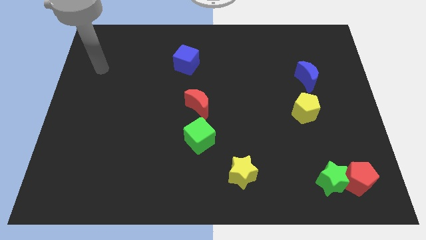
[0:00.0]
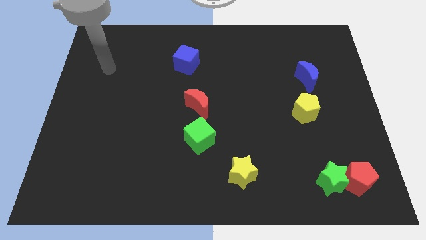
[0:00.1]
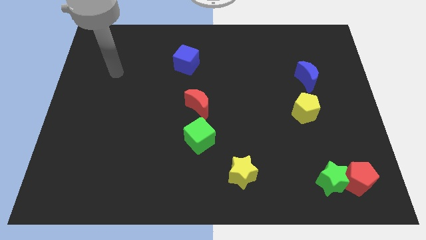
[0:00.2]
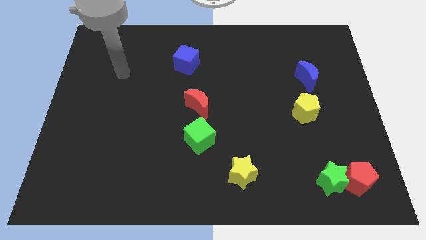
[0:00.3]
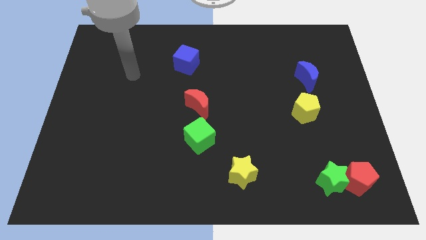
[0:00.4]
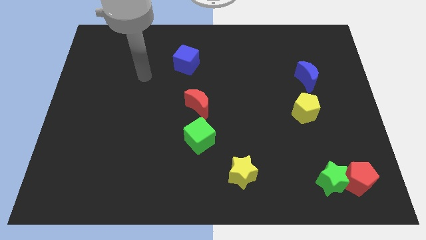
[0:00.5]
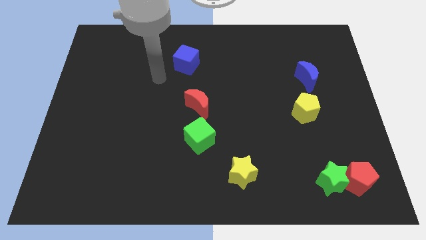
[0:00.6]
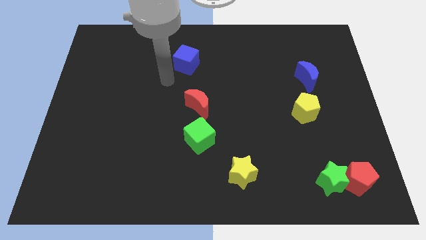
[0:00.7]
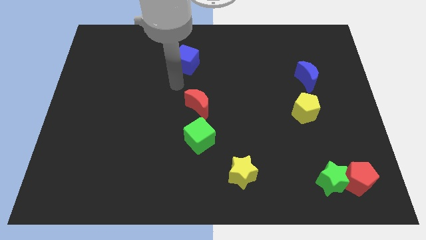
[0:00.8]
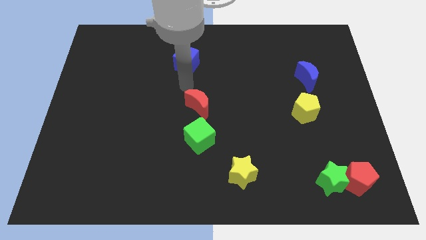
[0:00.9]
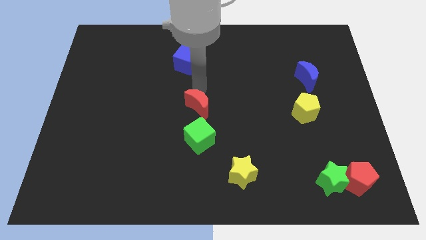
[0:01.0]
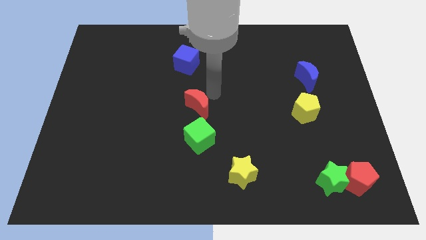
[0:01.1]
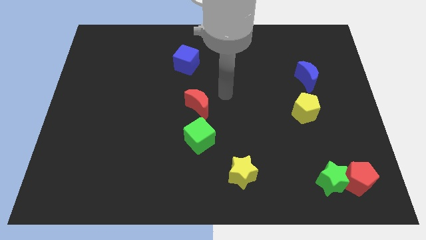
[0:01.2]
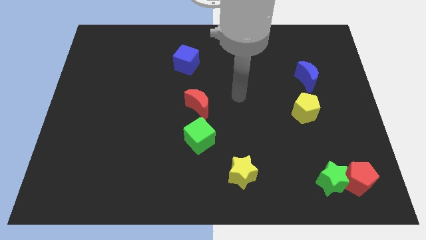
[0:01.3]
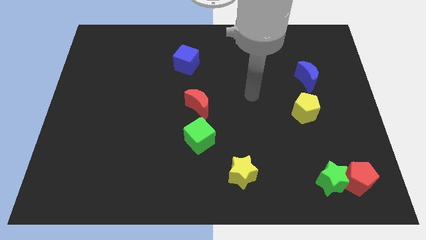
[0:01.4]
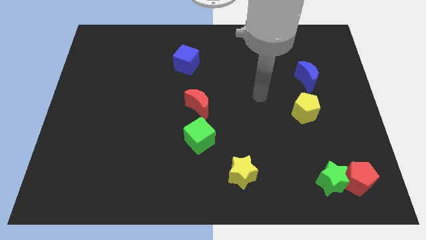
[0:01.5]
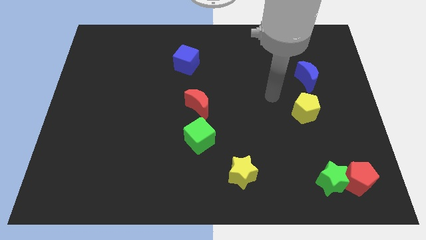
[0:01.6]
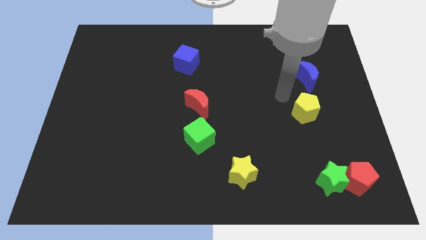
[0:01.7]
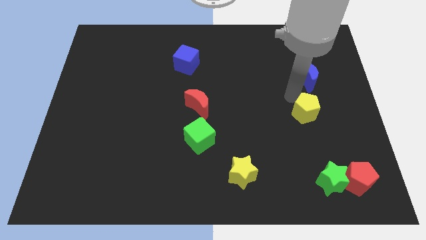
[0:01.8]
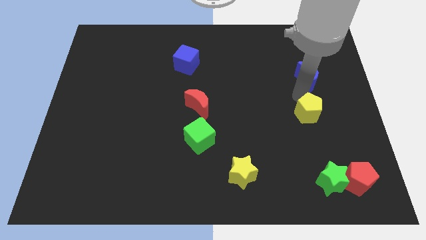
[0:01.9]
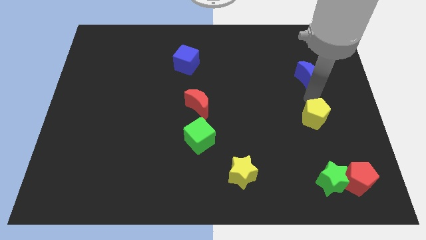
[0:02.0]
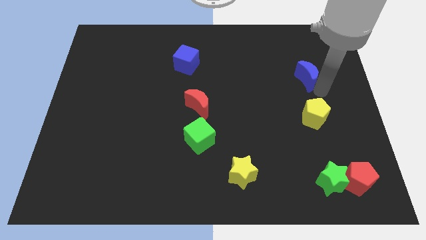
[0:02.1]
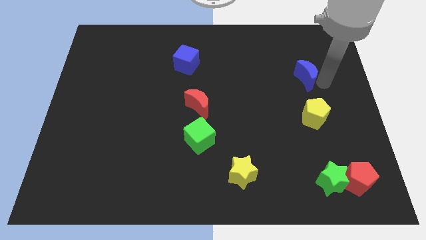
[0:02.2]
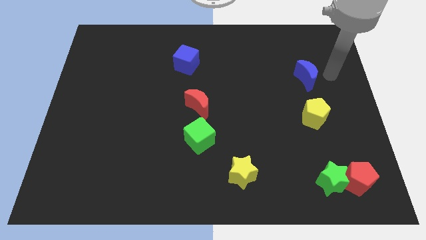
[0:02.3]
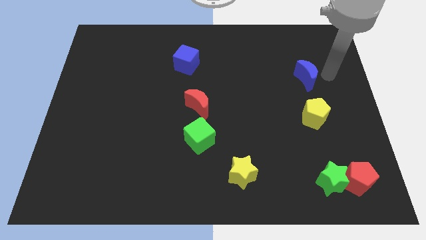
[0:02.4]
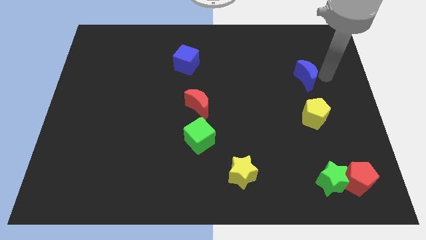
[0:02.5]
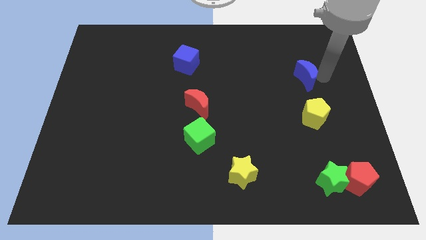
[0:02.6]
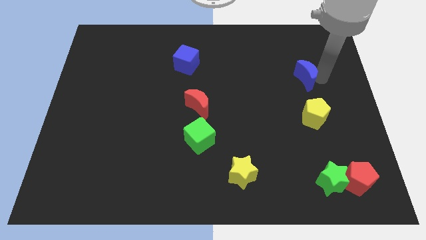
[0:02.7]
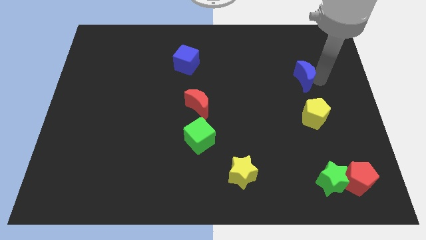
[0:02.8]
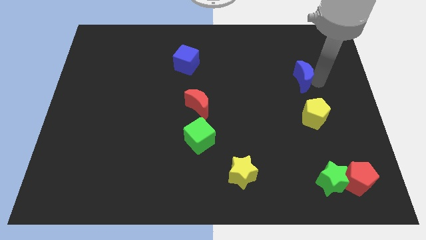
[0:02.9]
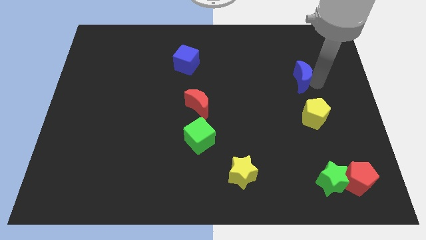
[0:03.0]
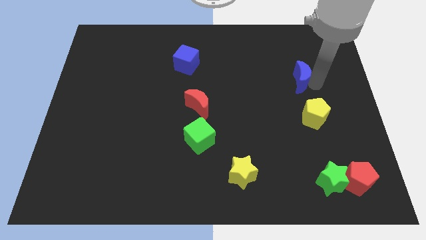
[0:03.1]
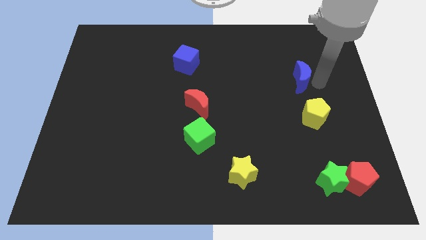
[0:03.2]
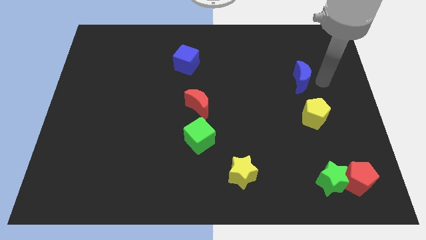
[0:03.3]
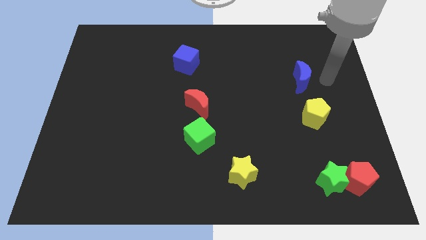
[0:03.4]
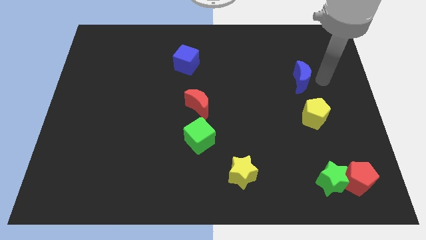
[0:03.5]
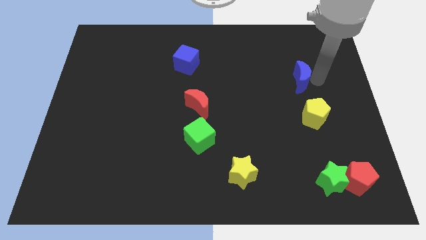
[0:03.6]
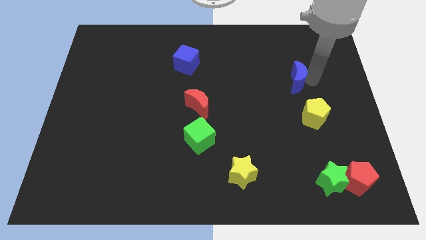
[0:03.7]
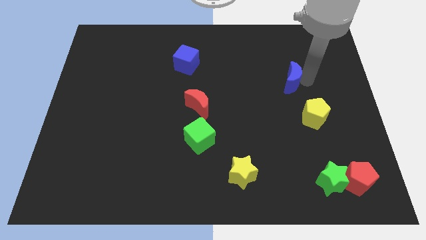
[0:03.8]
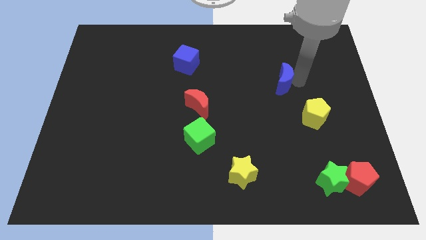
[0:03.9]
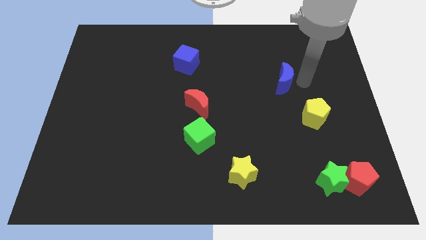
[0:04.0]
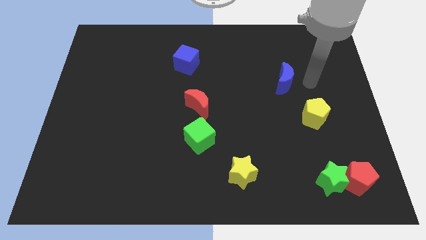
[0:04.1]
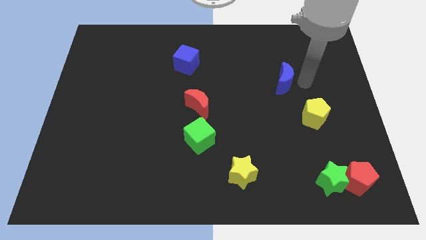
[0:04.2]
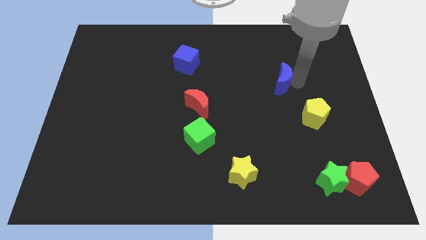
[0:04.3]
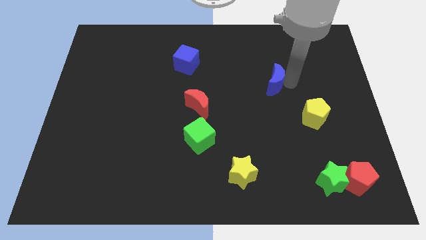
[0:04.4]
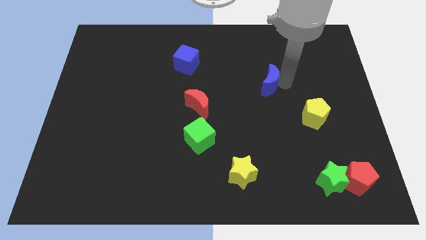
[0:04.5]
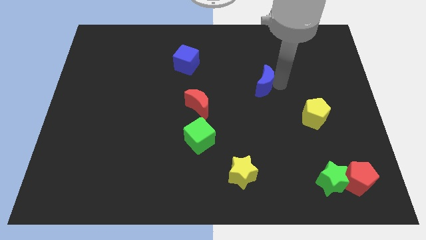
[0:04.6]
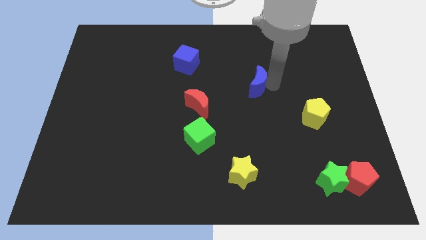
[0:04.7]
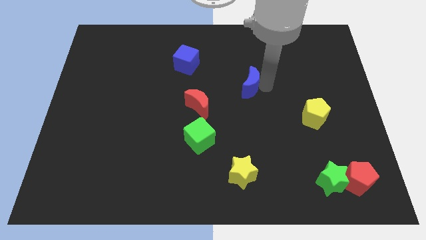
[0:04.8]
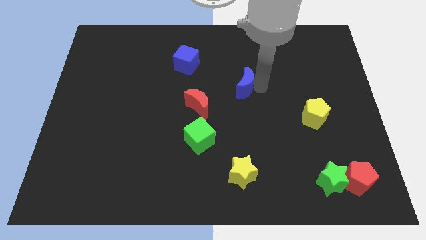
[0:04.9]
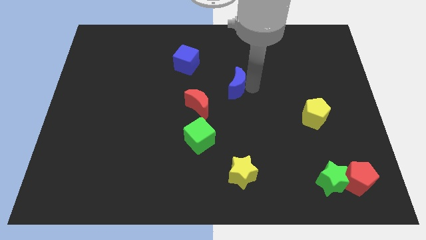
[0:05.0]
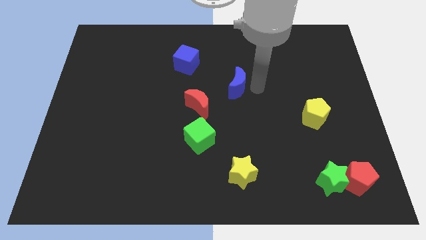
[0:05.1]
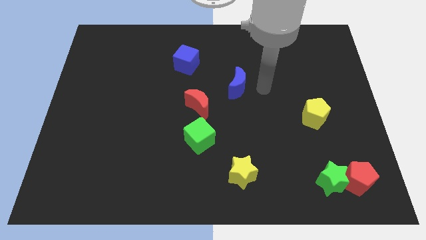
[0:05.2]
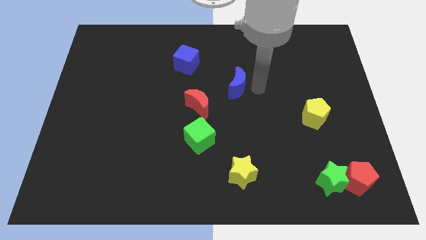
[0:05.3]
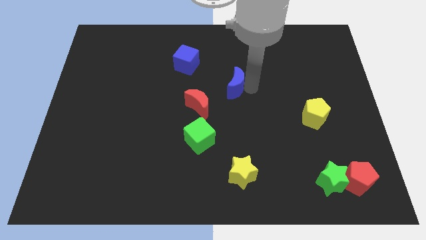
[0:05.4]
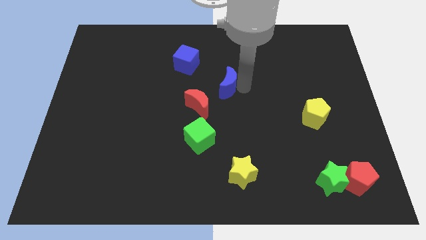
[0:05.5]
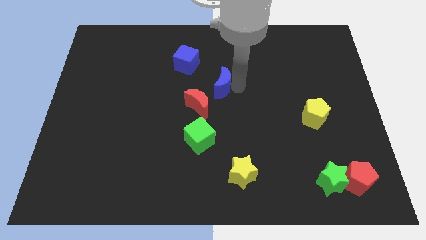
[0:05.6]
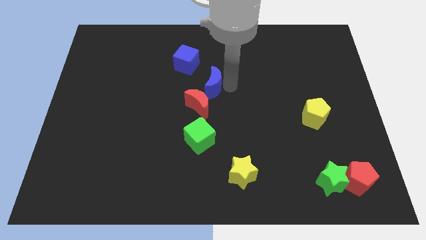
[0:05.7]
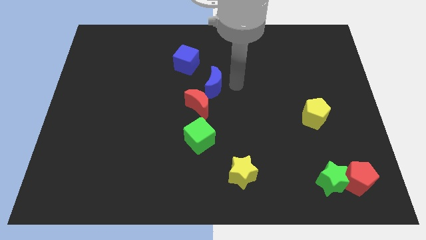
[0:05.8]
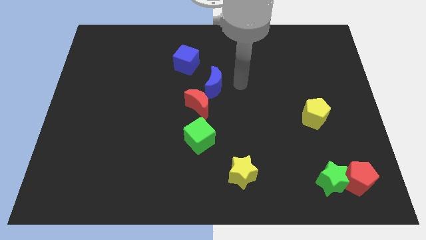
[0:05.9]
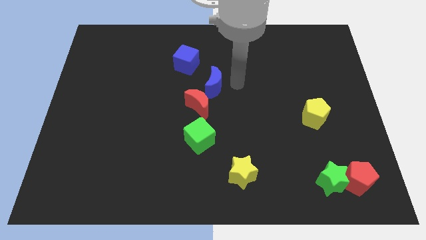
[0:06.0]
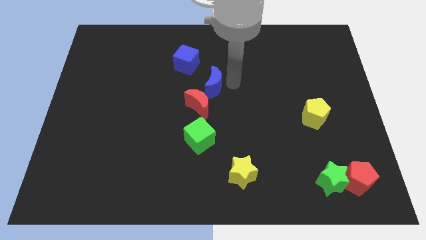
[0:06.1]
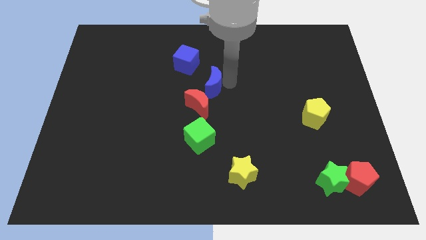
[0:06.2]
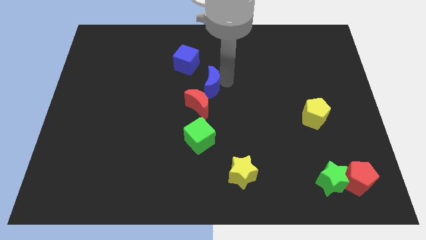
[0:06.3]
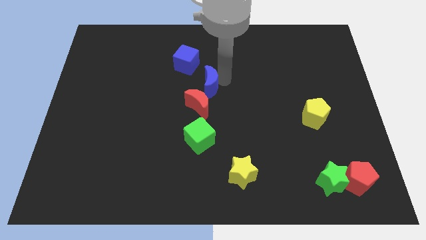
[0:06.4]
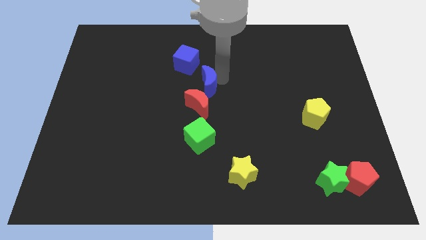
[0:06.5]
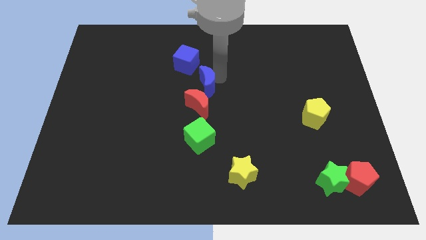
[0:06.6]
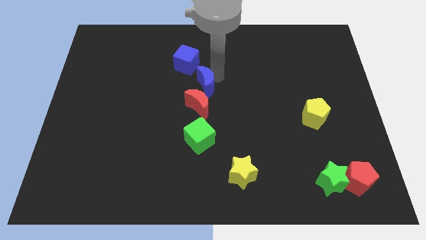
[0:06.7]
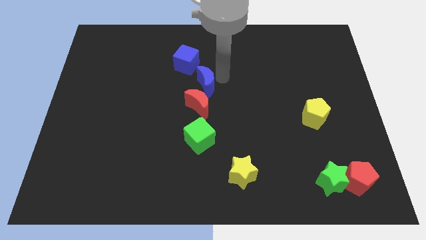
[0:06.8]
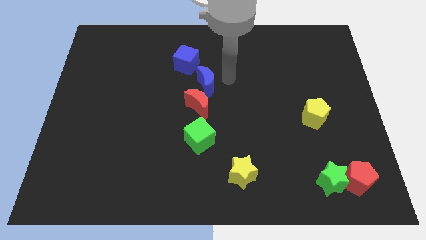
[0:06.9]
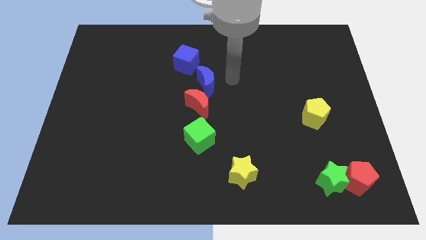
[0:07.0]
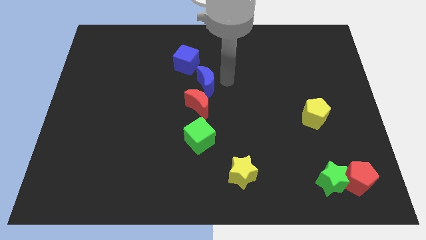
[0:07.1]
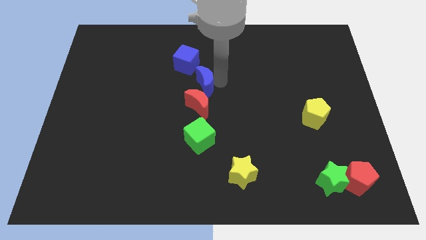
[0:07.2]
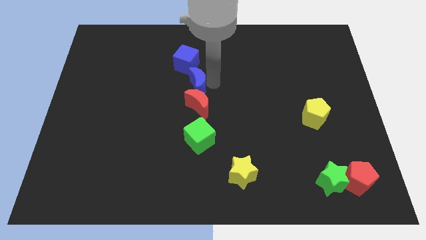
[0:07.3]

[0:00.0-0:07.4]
put the blue moon to the top left of the red moon
